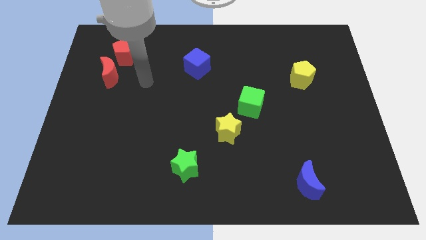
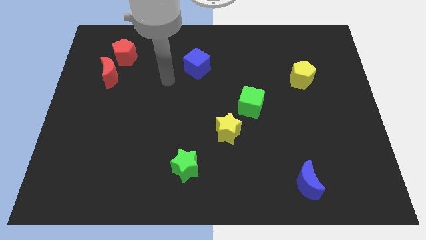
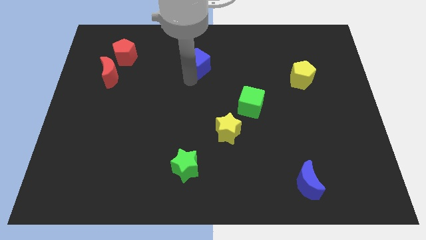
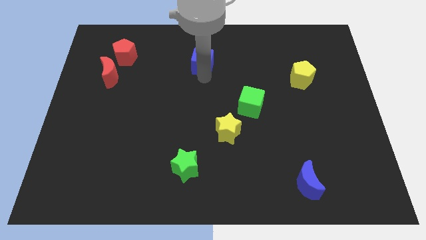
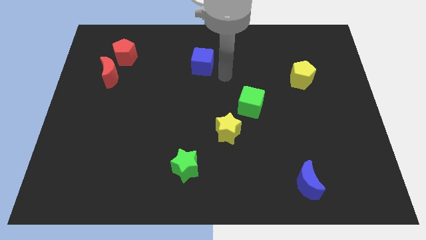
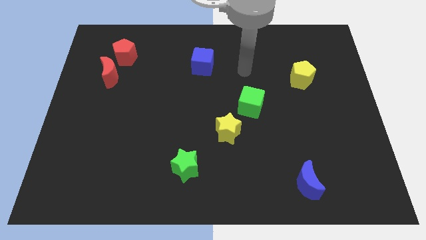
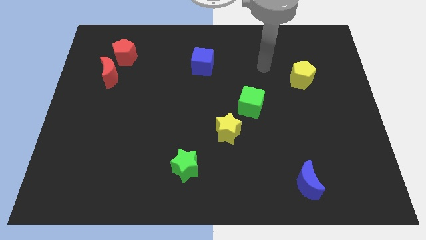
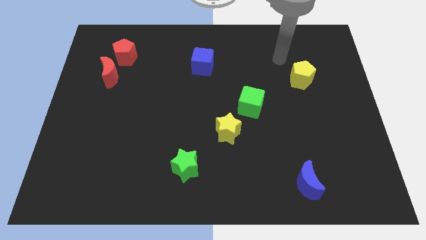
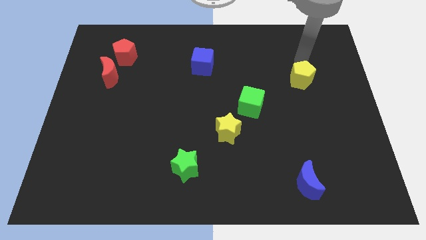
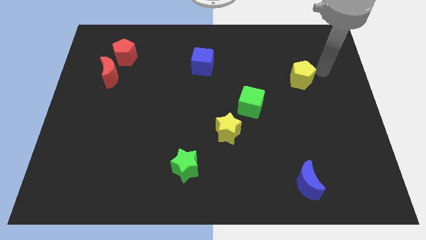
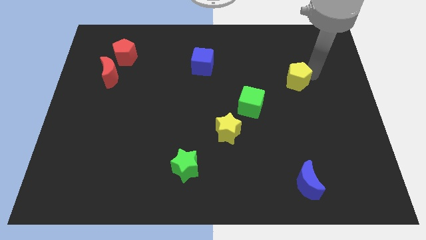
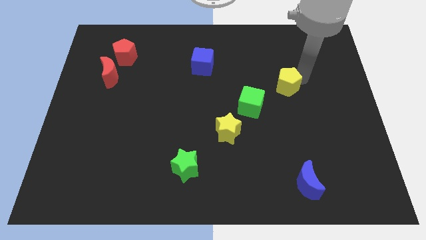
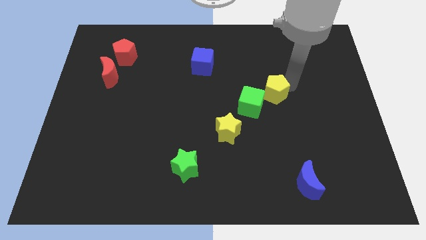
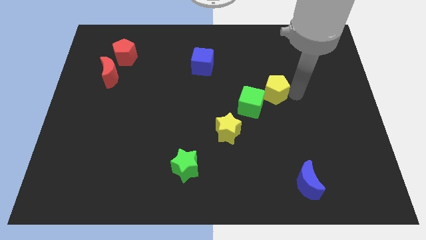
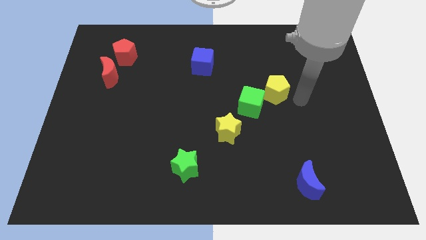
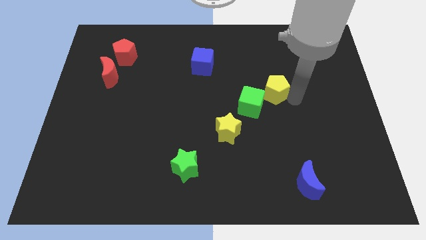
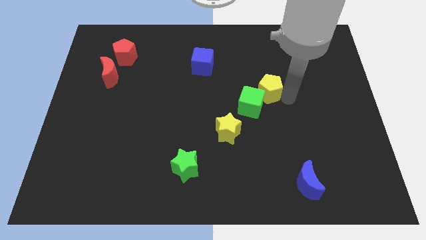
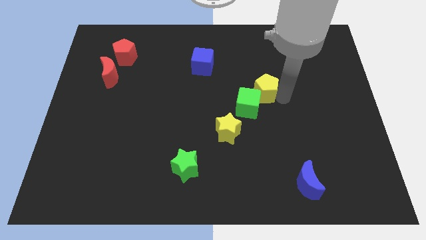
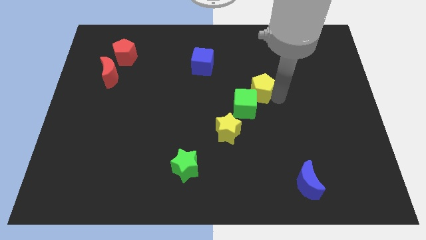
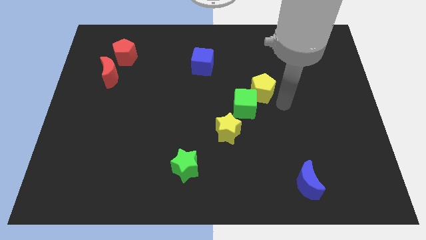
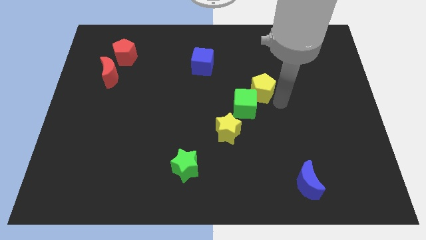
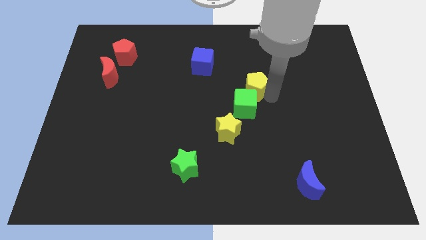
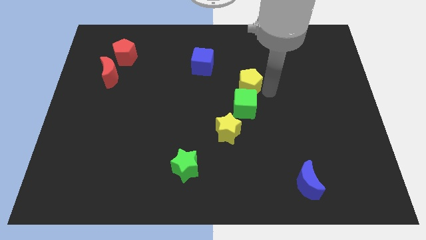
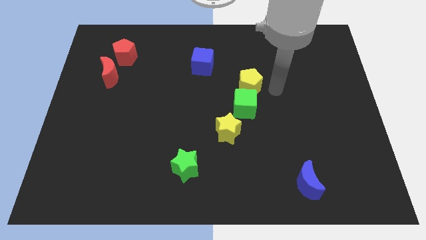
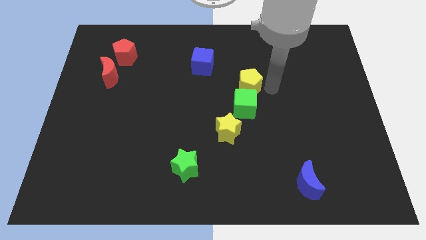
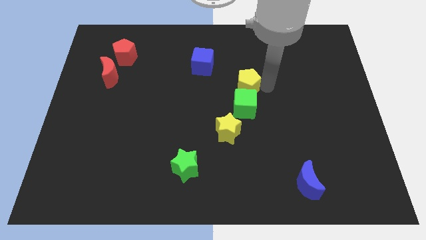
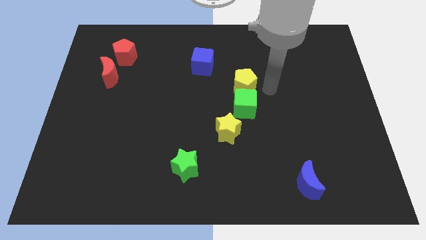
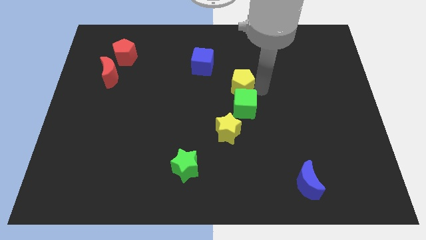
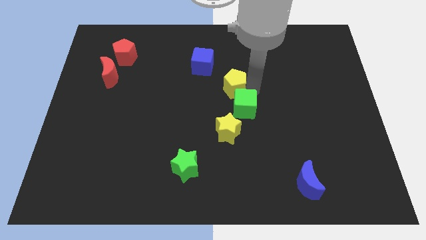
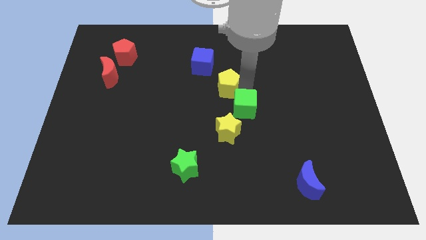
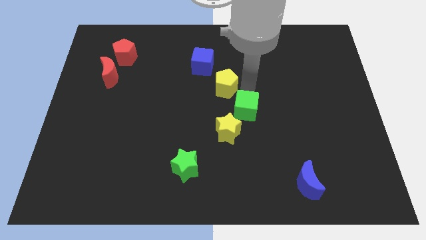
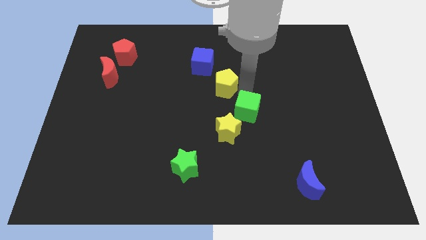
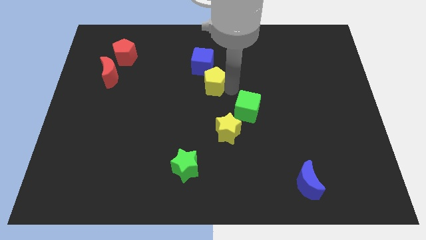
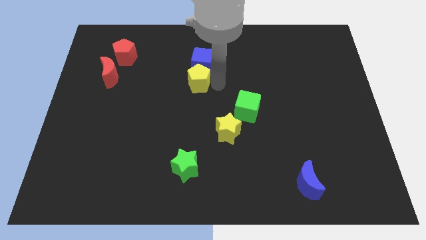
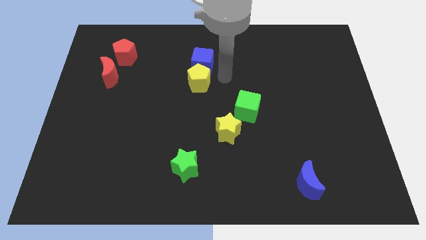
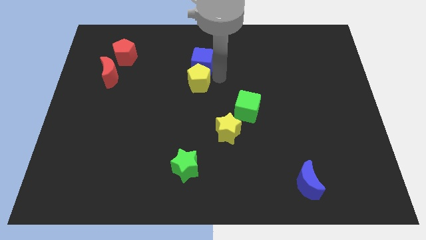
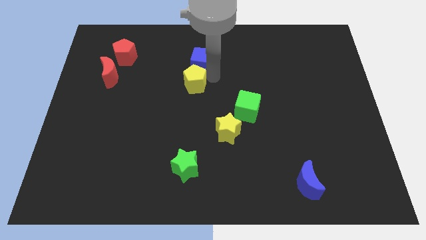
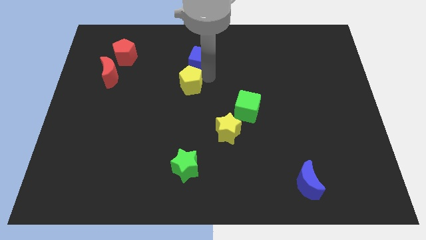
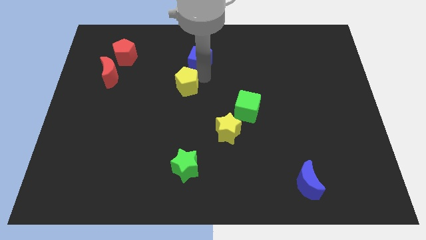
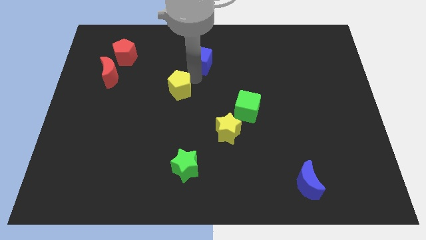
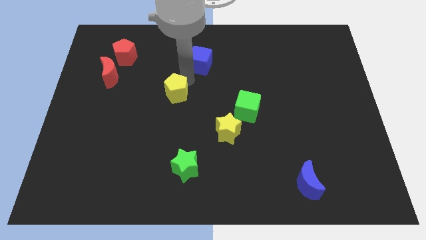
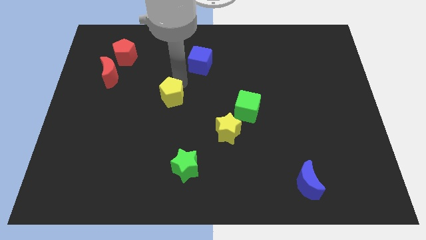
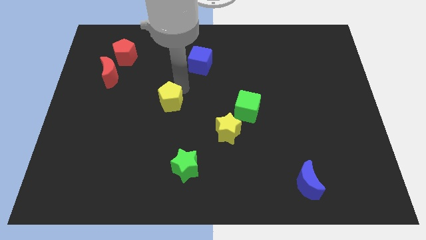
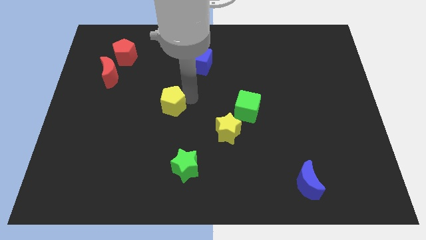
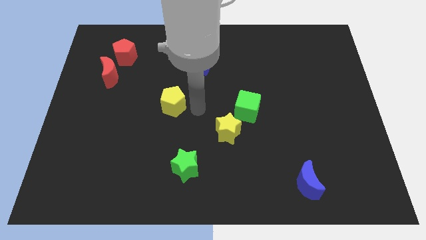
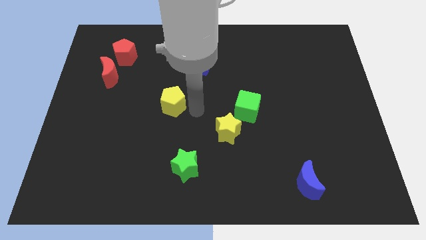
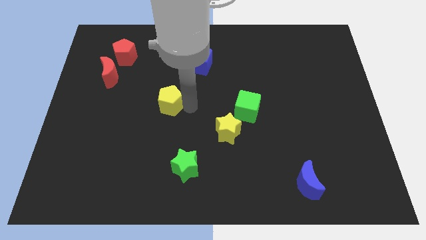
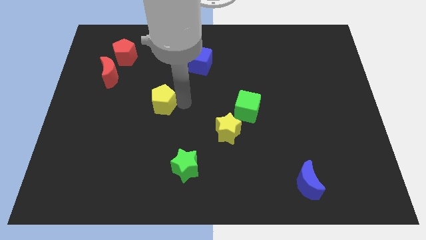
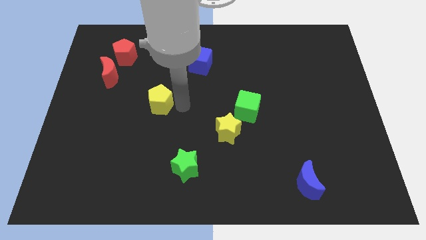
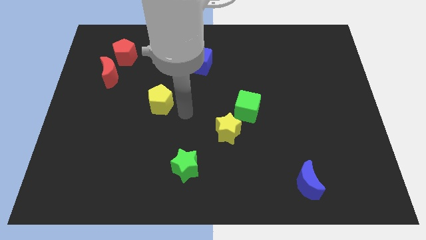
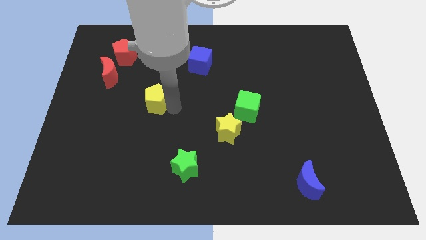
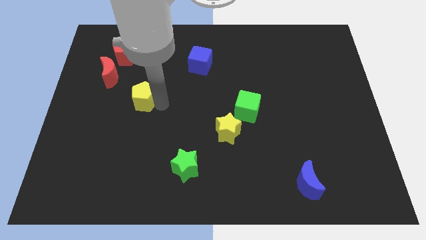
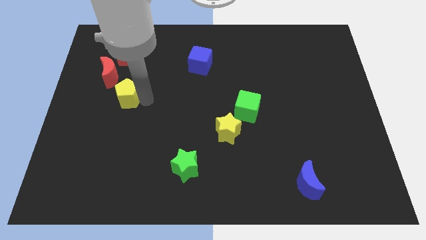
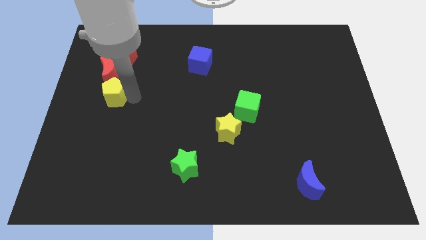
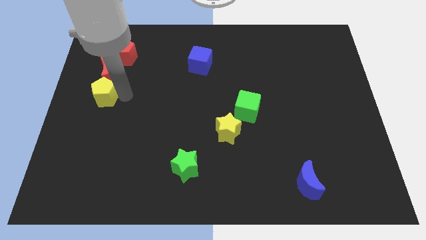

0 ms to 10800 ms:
push the yellow pentagon to the left side of the board
